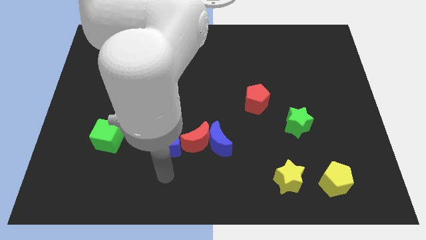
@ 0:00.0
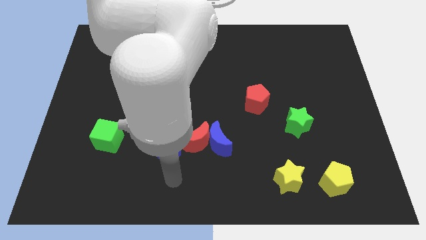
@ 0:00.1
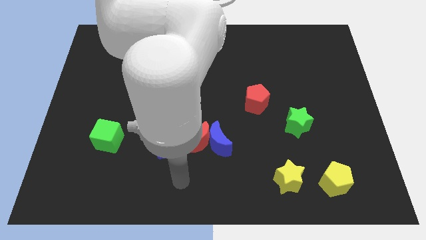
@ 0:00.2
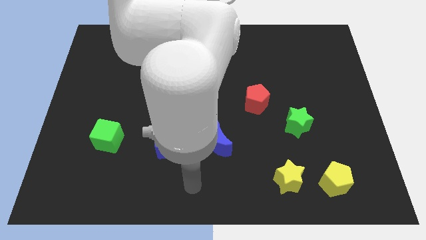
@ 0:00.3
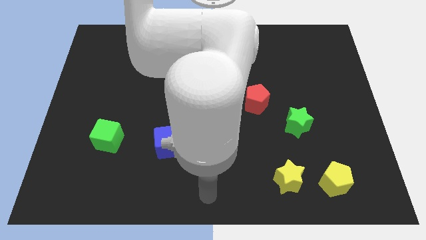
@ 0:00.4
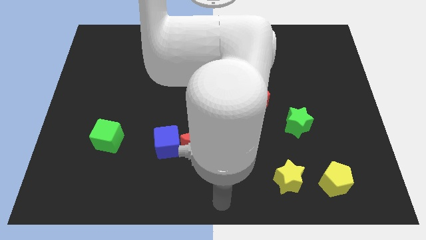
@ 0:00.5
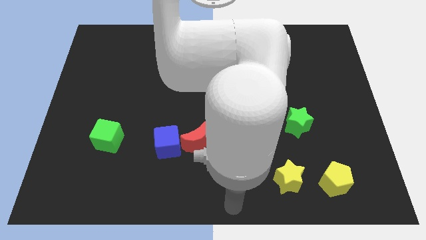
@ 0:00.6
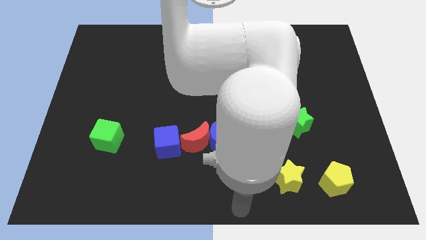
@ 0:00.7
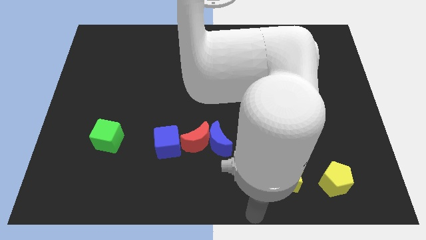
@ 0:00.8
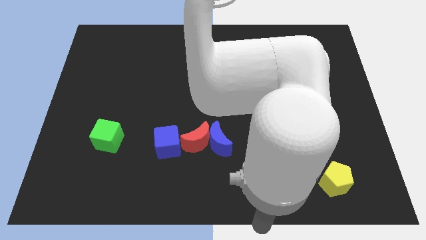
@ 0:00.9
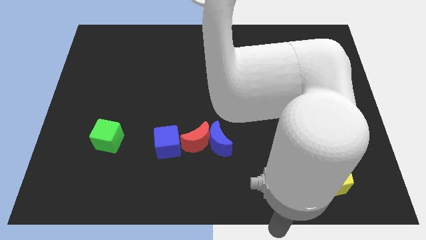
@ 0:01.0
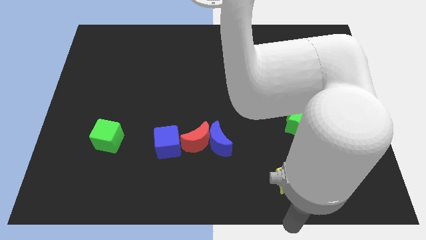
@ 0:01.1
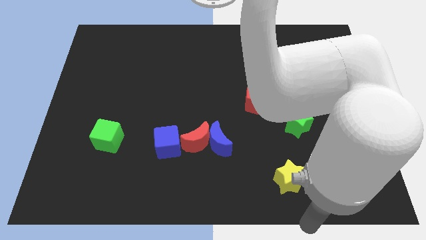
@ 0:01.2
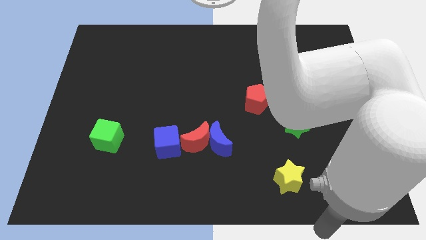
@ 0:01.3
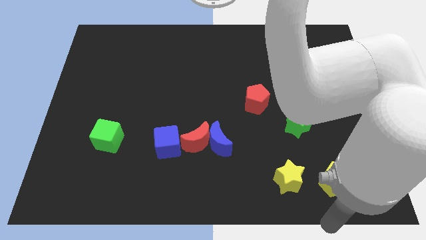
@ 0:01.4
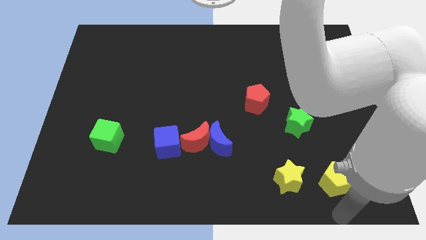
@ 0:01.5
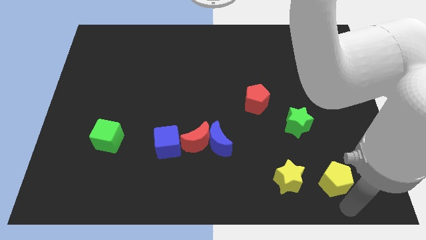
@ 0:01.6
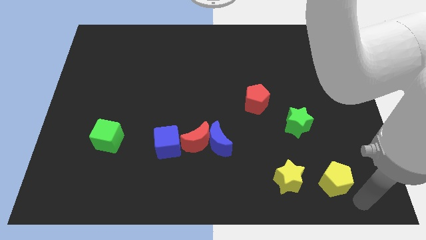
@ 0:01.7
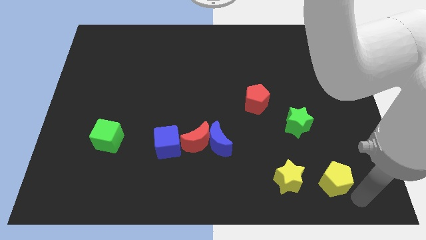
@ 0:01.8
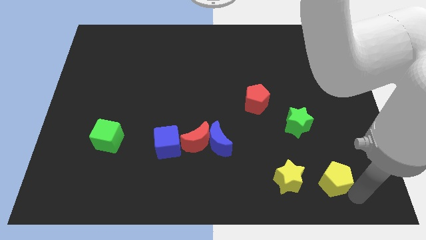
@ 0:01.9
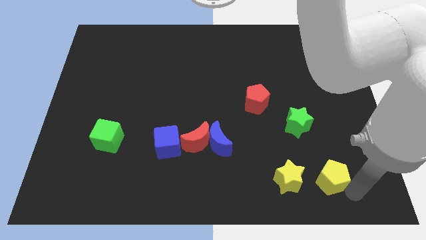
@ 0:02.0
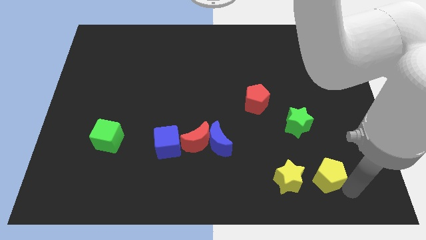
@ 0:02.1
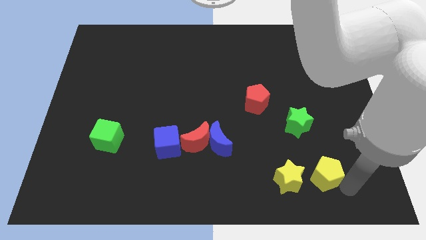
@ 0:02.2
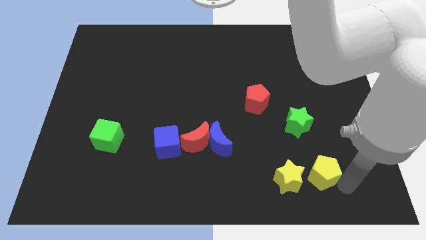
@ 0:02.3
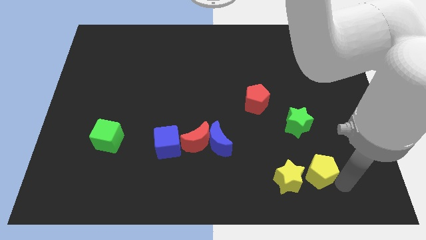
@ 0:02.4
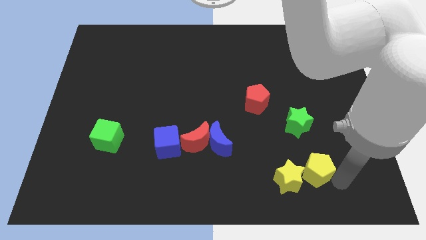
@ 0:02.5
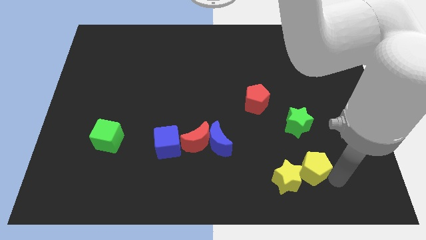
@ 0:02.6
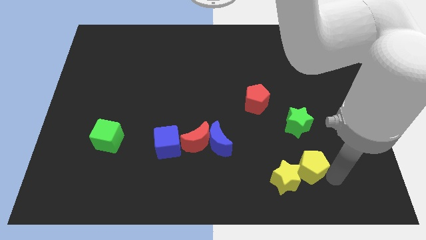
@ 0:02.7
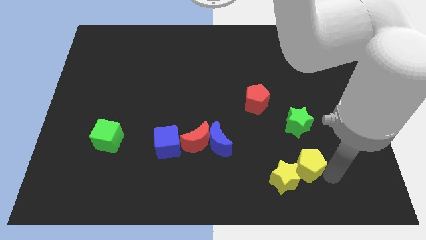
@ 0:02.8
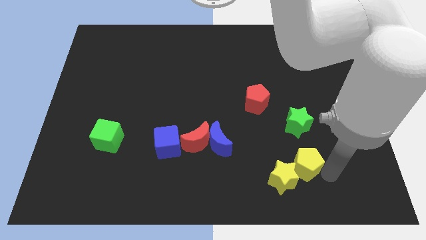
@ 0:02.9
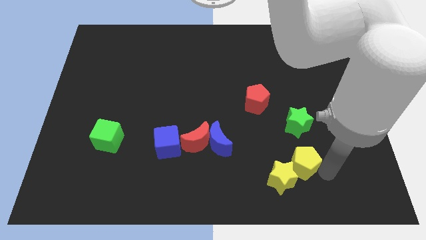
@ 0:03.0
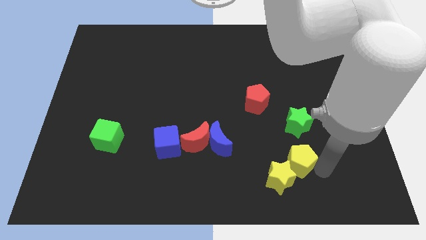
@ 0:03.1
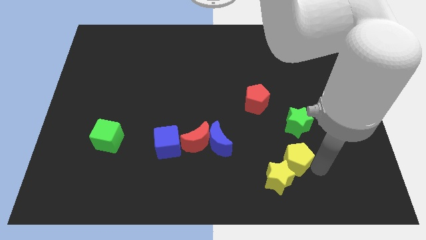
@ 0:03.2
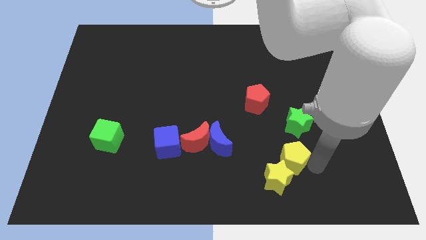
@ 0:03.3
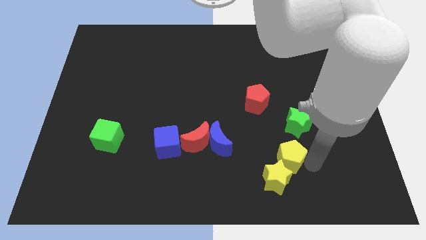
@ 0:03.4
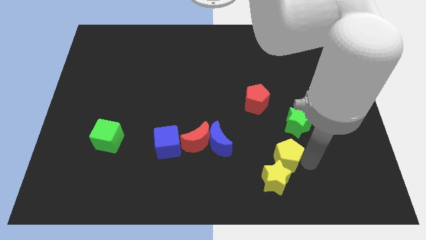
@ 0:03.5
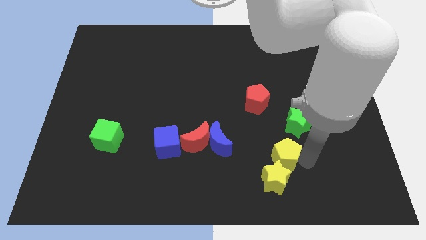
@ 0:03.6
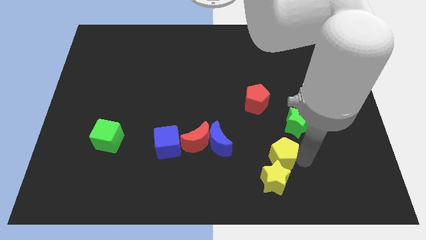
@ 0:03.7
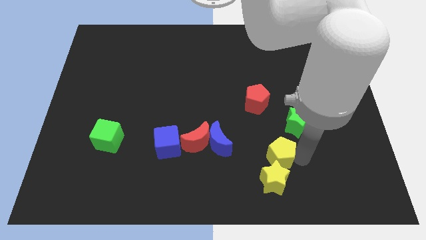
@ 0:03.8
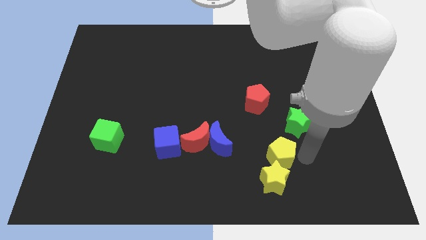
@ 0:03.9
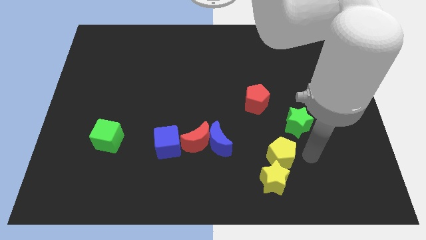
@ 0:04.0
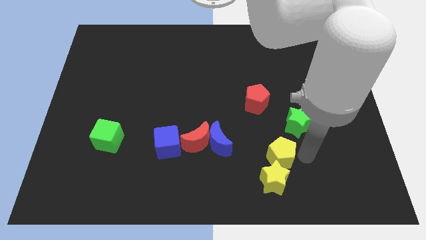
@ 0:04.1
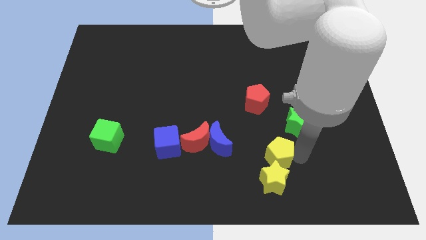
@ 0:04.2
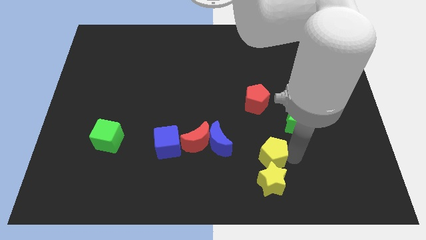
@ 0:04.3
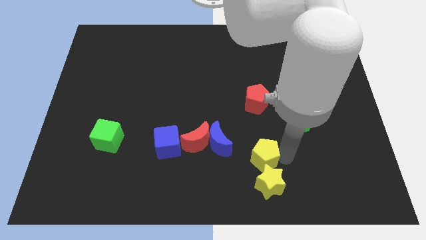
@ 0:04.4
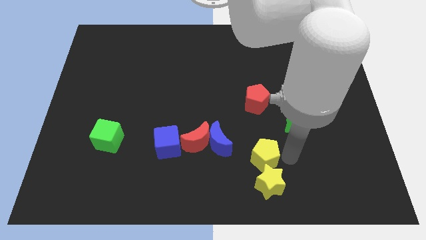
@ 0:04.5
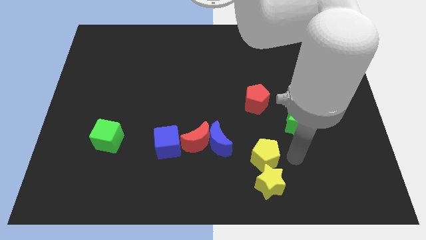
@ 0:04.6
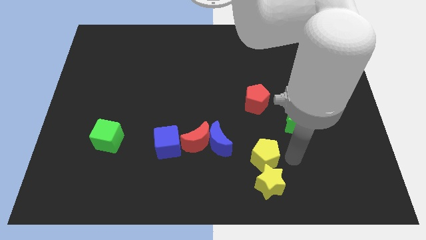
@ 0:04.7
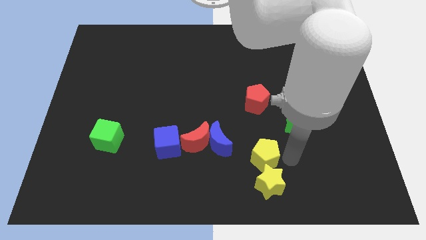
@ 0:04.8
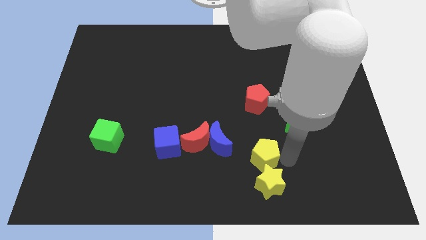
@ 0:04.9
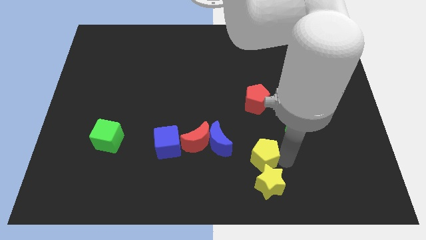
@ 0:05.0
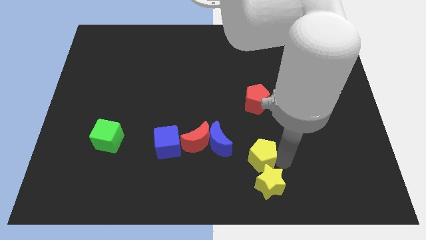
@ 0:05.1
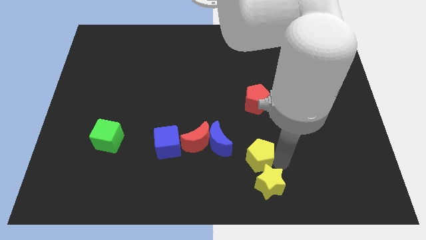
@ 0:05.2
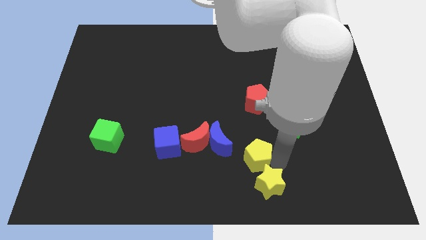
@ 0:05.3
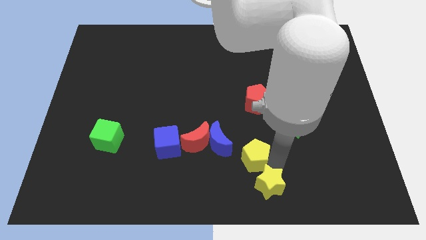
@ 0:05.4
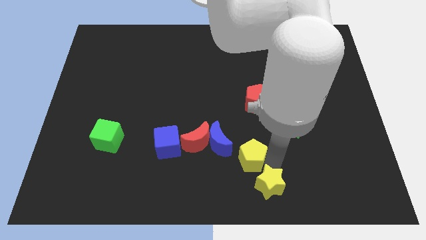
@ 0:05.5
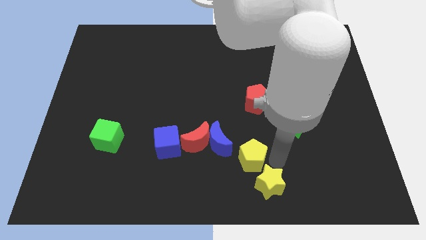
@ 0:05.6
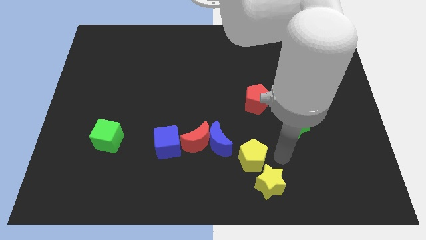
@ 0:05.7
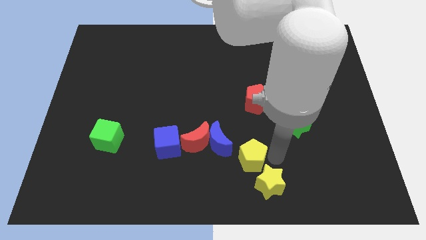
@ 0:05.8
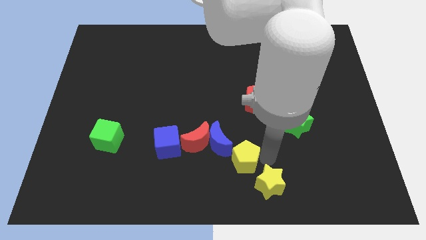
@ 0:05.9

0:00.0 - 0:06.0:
slide the yellow pentagon to the bottom right of the red moon

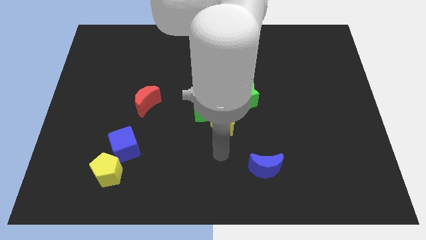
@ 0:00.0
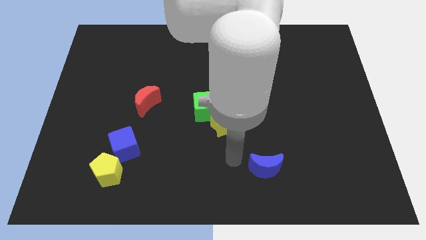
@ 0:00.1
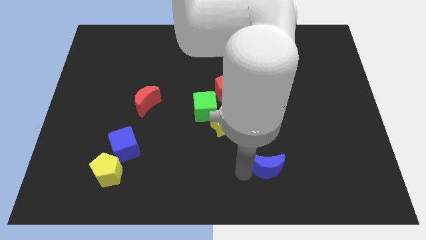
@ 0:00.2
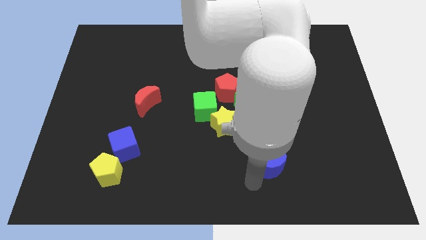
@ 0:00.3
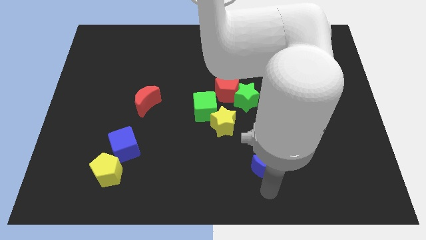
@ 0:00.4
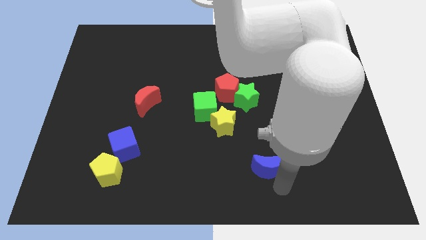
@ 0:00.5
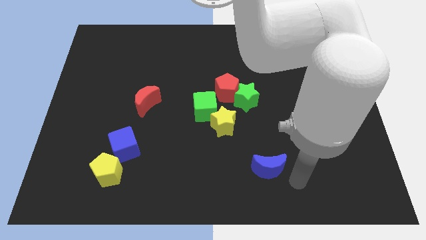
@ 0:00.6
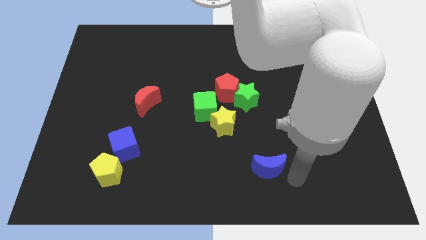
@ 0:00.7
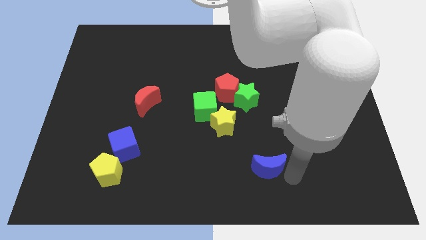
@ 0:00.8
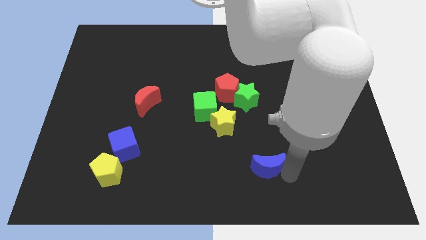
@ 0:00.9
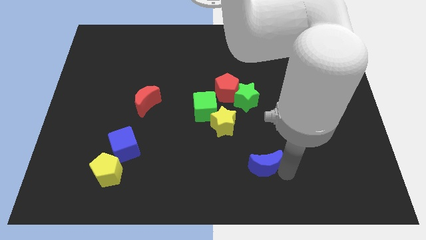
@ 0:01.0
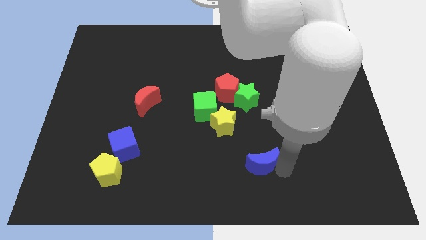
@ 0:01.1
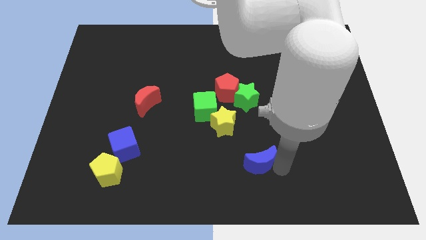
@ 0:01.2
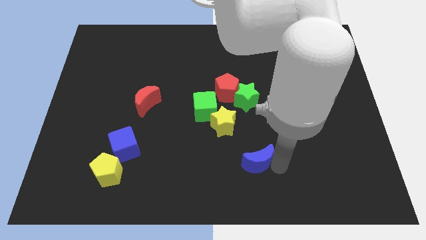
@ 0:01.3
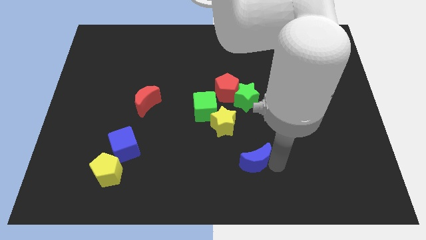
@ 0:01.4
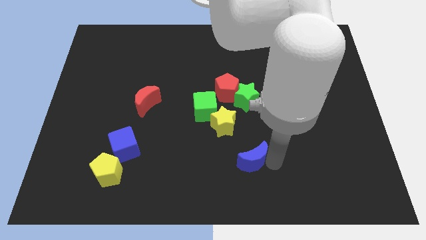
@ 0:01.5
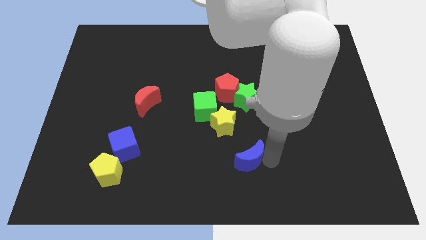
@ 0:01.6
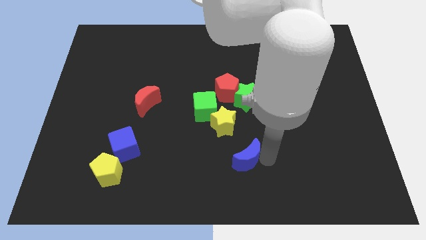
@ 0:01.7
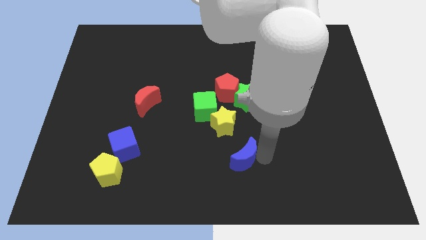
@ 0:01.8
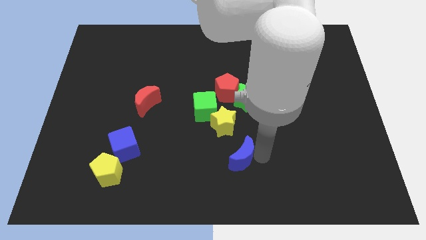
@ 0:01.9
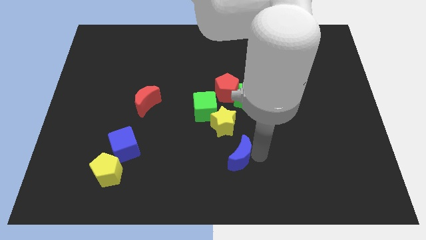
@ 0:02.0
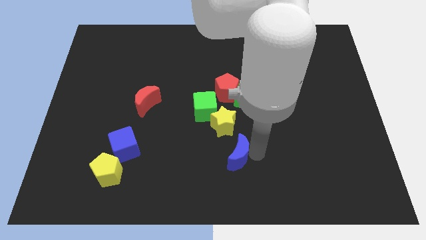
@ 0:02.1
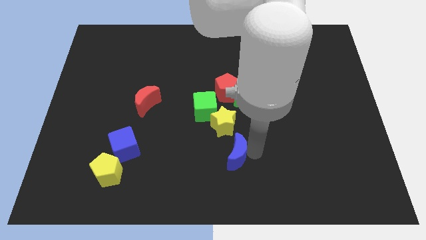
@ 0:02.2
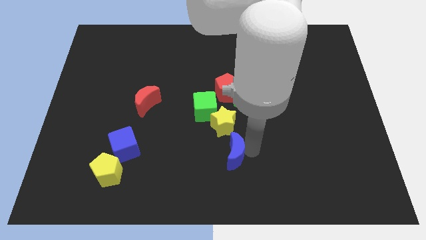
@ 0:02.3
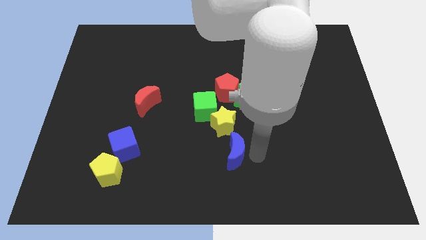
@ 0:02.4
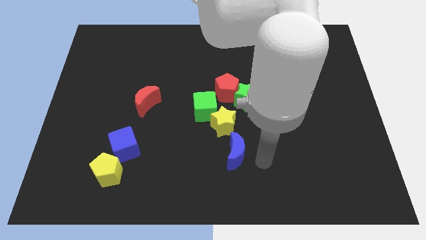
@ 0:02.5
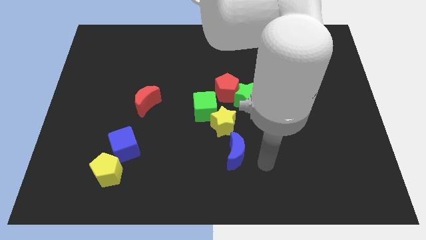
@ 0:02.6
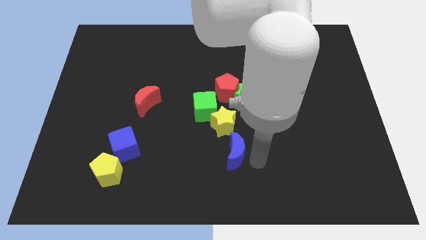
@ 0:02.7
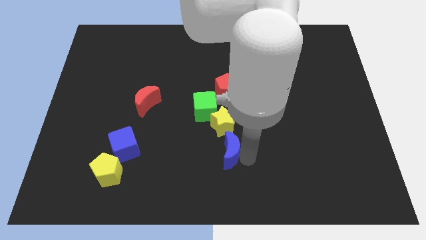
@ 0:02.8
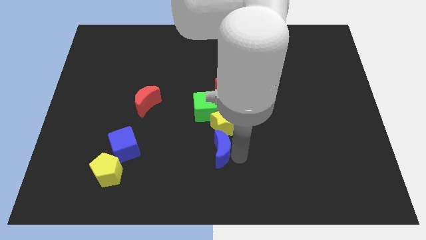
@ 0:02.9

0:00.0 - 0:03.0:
put the blue moon to the bottom left side of the yellow star
